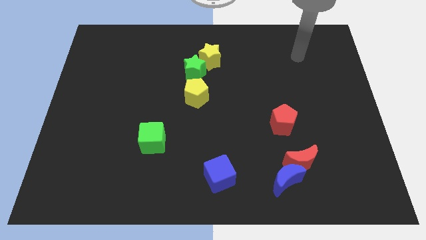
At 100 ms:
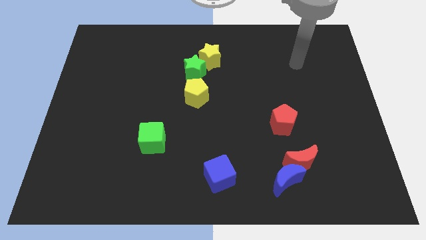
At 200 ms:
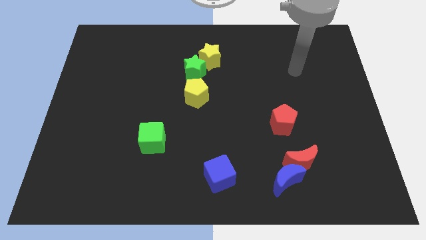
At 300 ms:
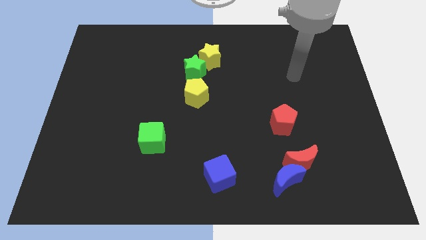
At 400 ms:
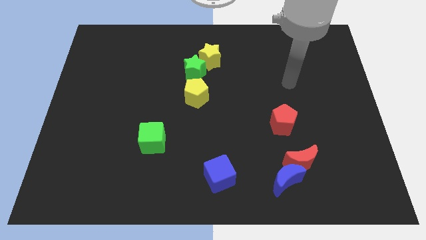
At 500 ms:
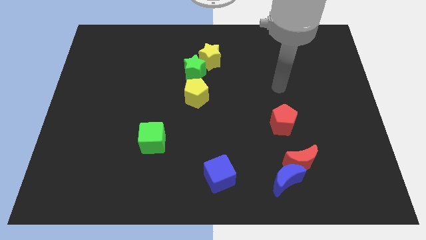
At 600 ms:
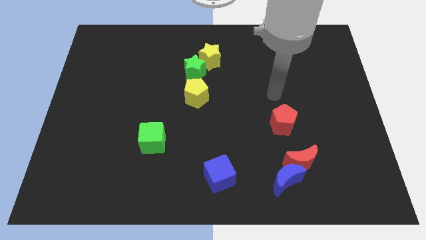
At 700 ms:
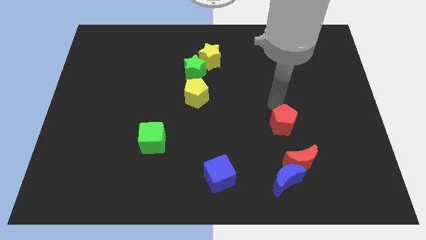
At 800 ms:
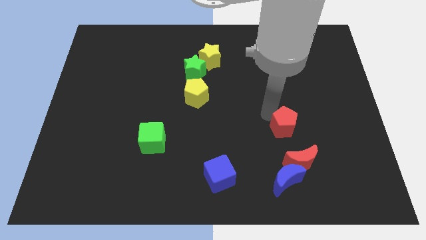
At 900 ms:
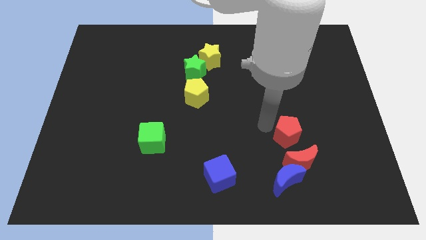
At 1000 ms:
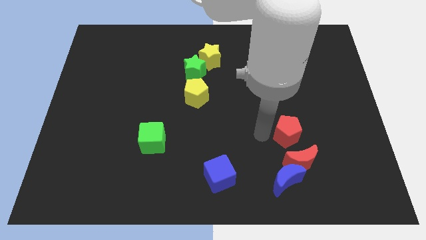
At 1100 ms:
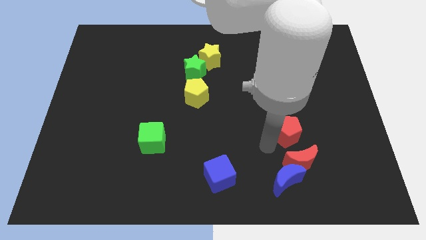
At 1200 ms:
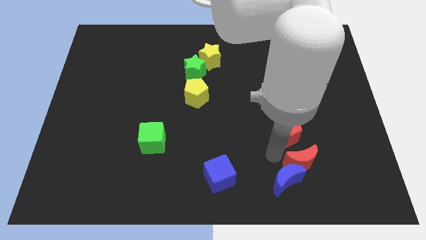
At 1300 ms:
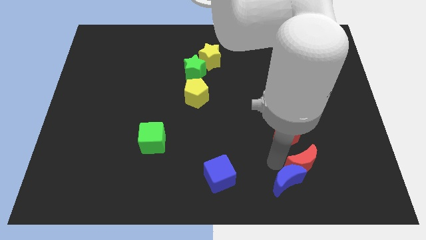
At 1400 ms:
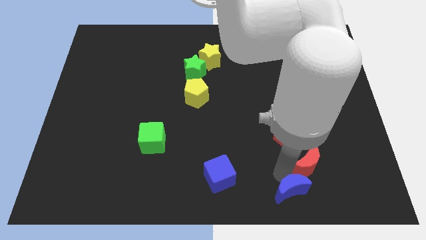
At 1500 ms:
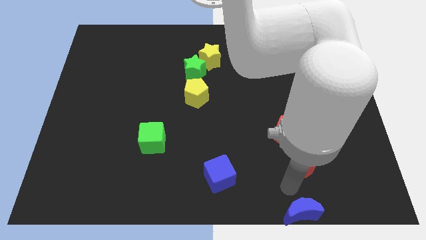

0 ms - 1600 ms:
pull the red moon apart from the blue moon

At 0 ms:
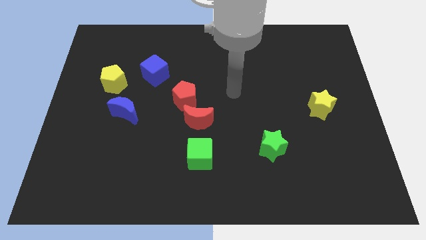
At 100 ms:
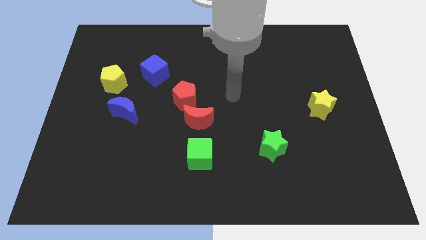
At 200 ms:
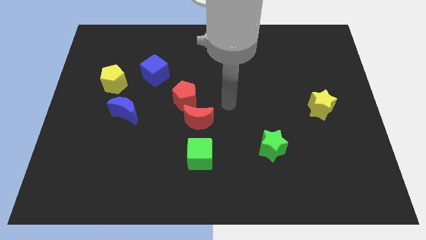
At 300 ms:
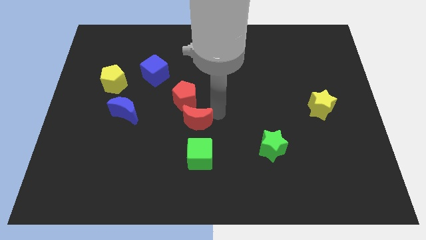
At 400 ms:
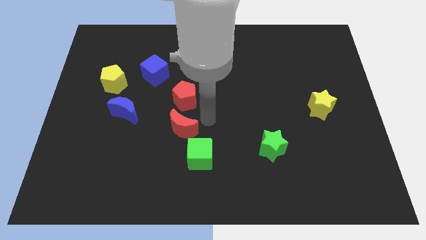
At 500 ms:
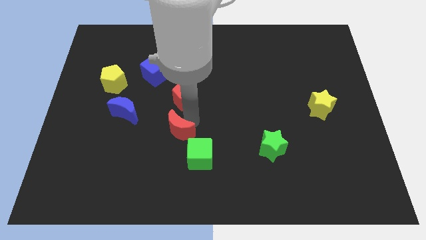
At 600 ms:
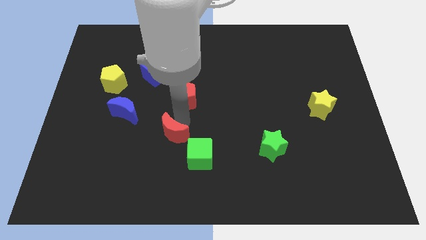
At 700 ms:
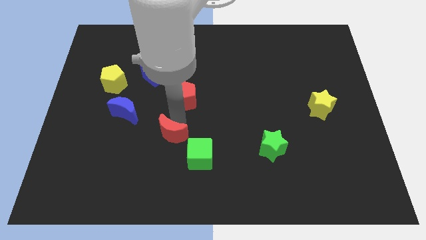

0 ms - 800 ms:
pull the red pentagon apart from the red moon

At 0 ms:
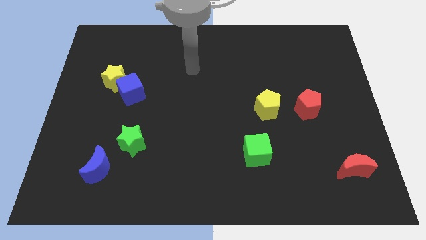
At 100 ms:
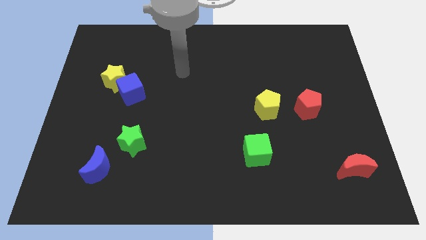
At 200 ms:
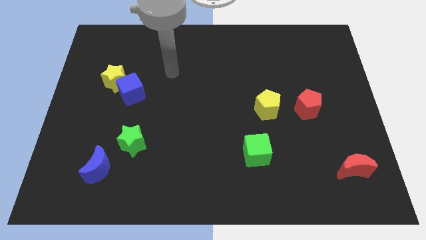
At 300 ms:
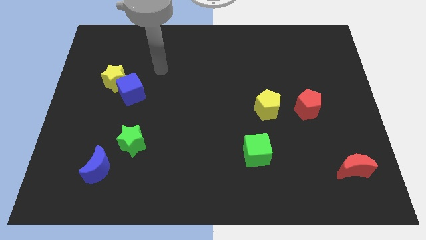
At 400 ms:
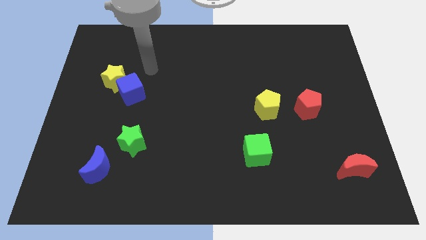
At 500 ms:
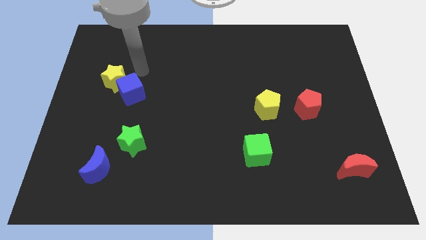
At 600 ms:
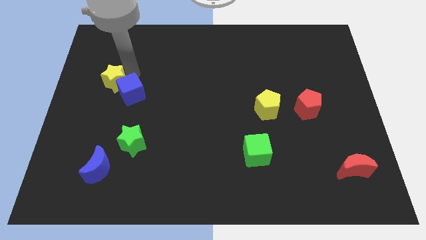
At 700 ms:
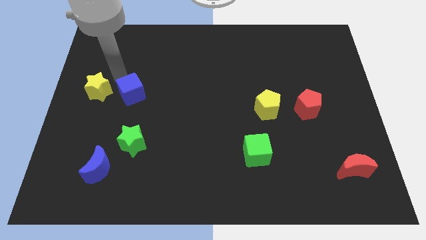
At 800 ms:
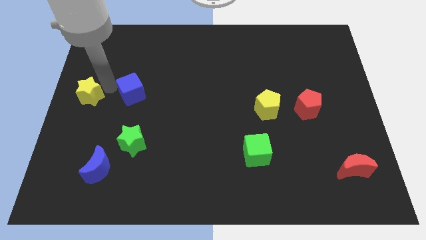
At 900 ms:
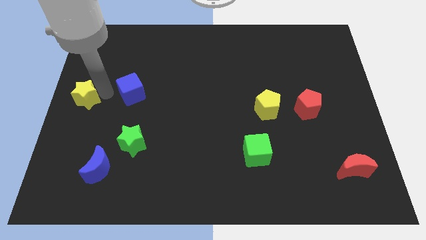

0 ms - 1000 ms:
pull the blue cube apart from the yellow star

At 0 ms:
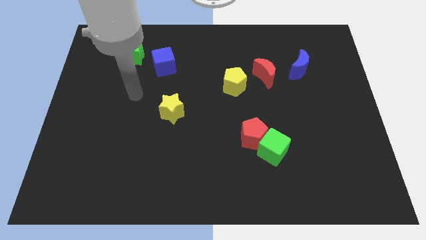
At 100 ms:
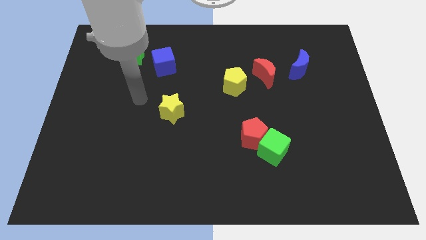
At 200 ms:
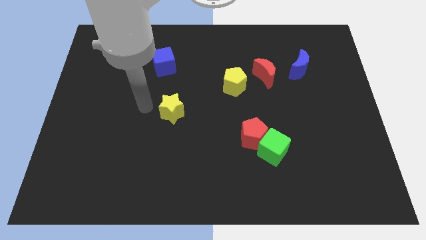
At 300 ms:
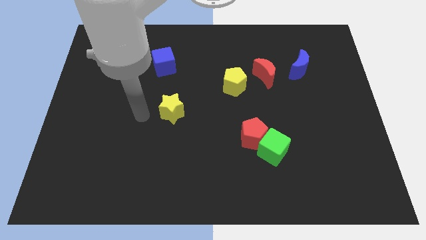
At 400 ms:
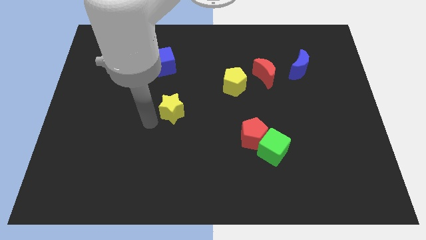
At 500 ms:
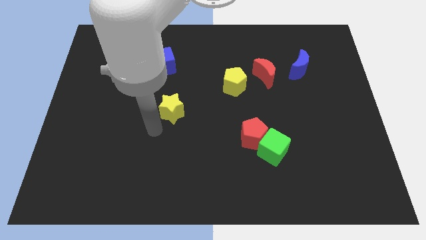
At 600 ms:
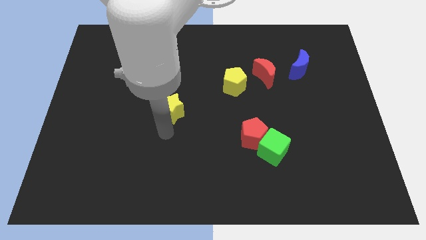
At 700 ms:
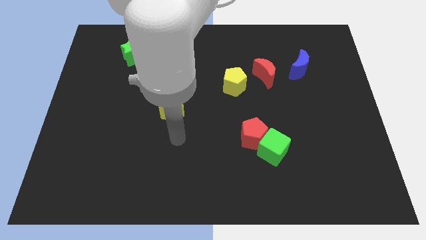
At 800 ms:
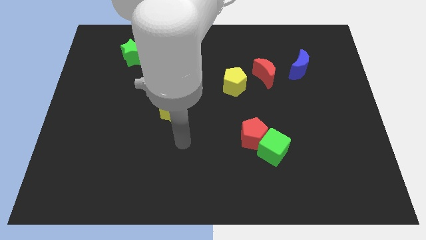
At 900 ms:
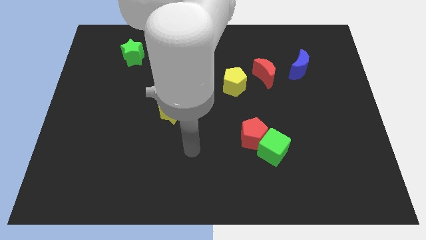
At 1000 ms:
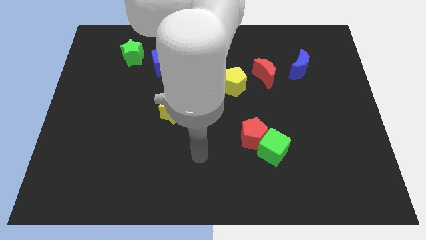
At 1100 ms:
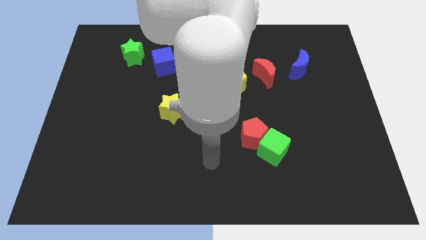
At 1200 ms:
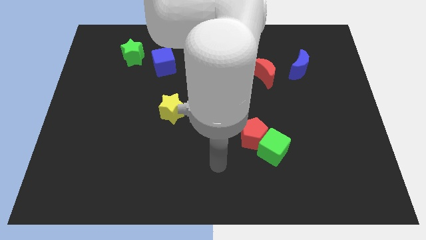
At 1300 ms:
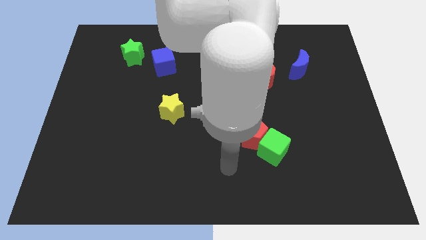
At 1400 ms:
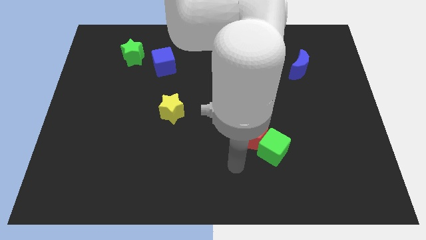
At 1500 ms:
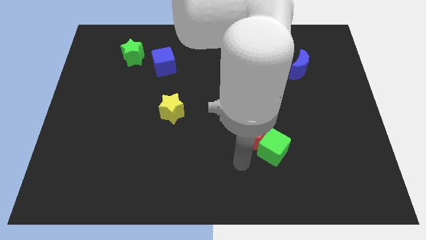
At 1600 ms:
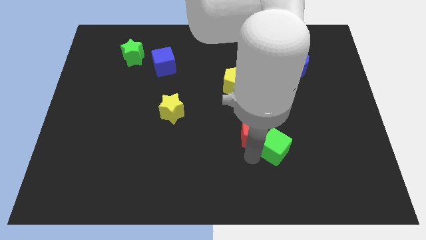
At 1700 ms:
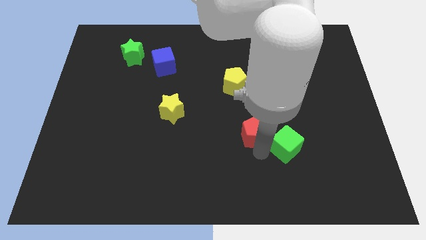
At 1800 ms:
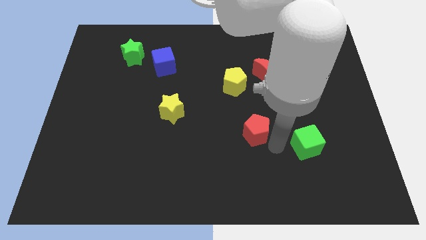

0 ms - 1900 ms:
pull the red pentagon apart from the green cube

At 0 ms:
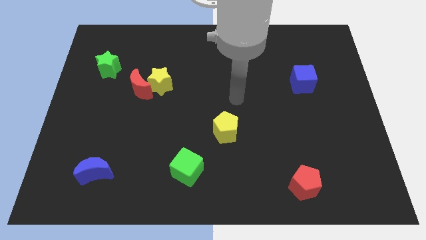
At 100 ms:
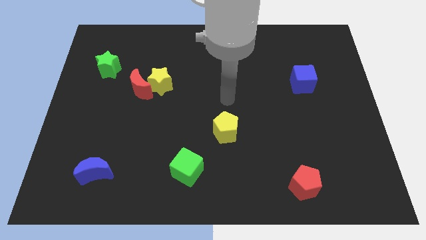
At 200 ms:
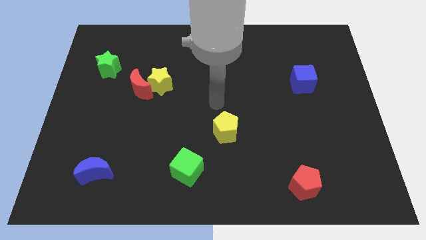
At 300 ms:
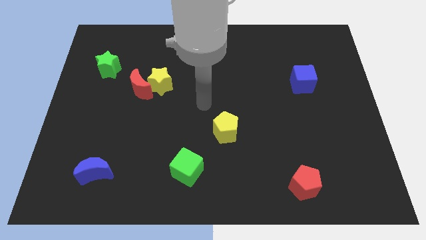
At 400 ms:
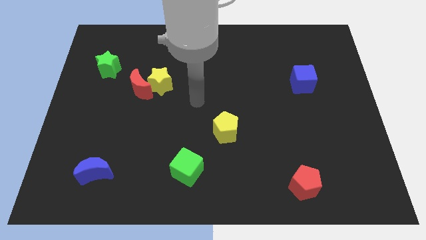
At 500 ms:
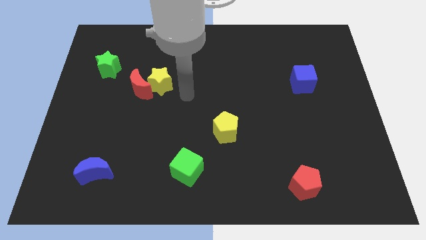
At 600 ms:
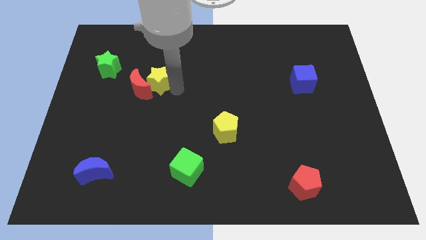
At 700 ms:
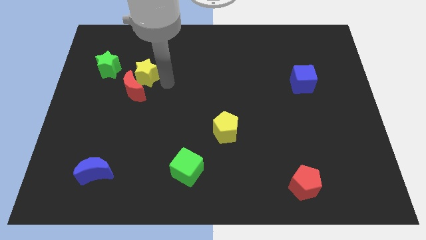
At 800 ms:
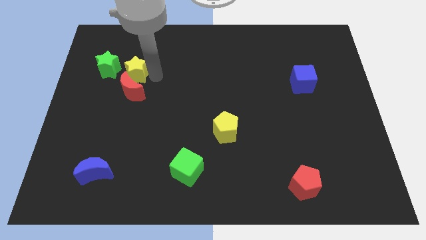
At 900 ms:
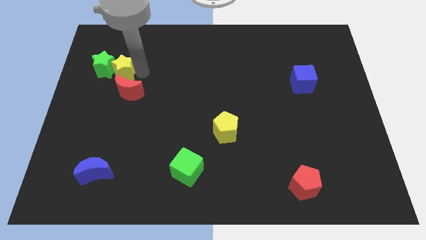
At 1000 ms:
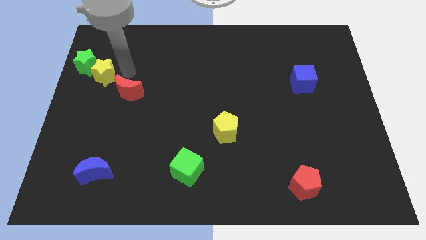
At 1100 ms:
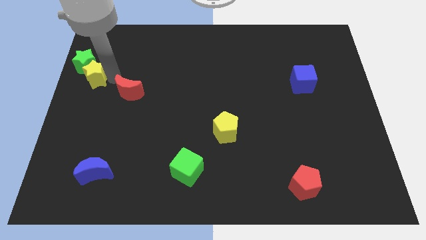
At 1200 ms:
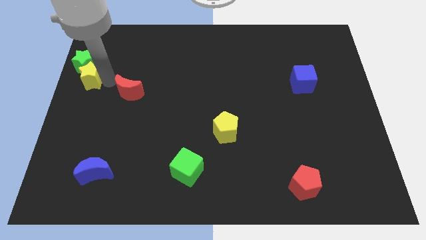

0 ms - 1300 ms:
pull the red moon apart from the yellow star

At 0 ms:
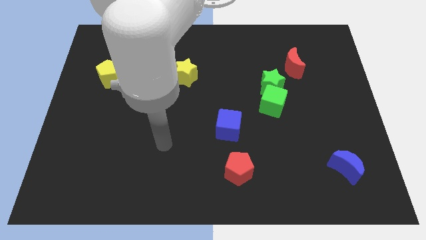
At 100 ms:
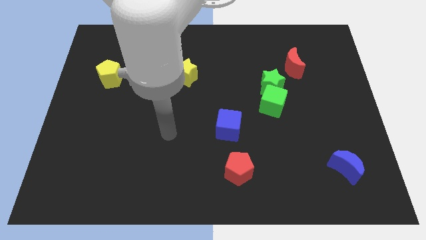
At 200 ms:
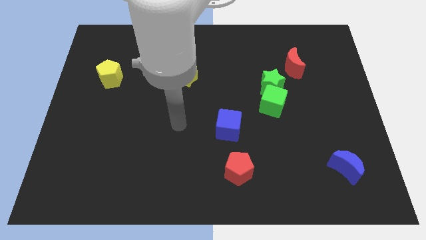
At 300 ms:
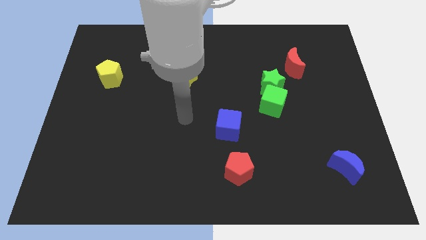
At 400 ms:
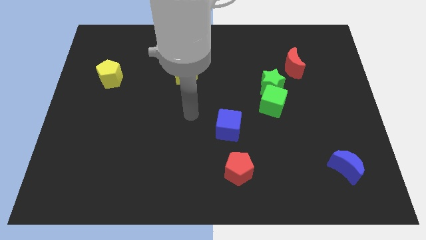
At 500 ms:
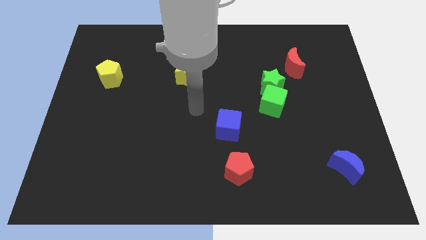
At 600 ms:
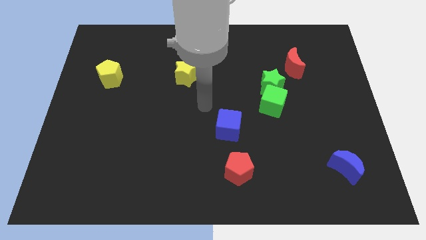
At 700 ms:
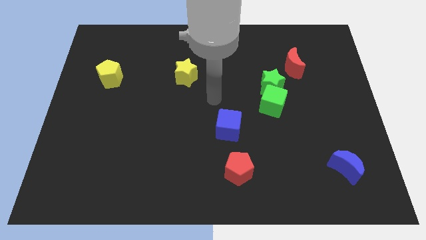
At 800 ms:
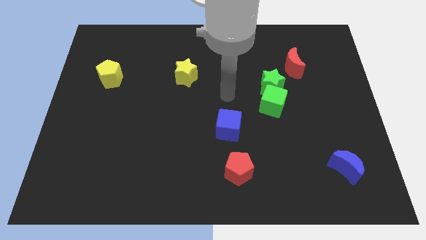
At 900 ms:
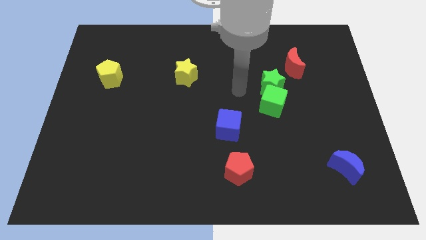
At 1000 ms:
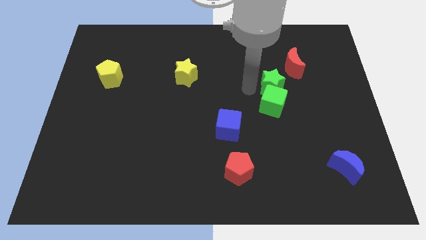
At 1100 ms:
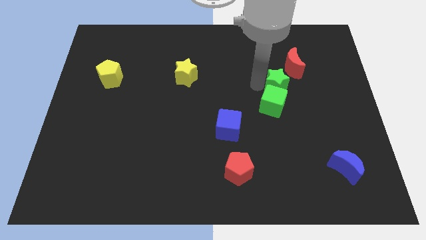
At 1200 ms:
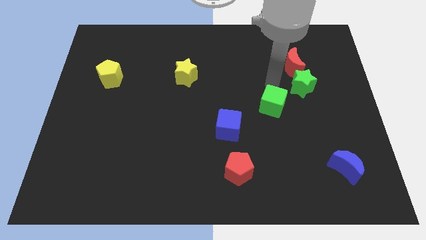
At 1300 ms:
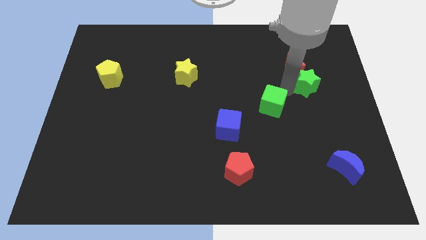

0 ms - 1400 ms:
pull the green cube apart from the green star

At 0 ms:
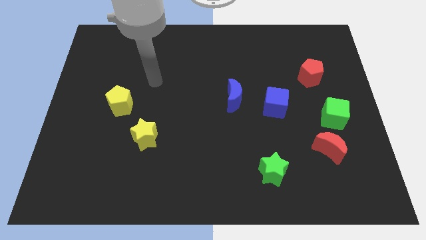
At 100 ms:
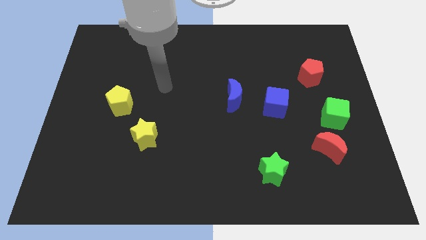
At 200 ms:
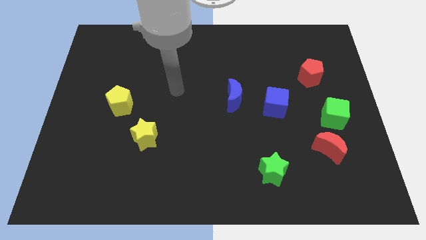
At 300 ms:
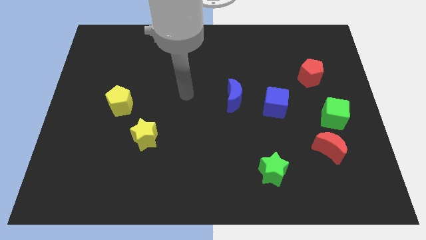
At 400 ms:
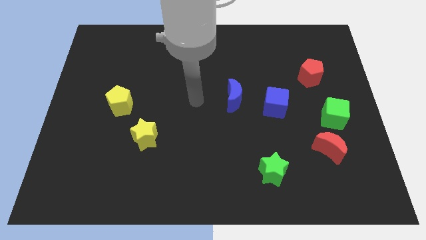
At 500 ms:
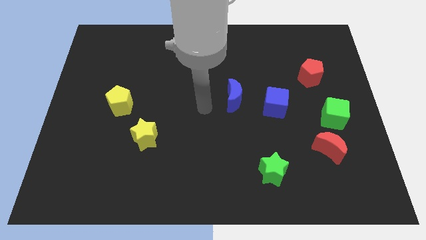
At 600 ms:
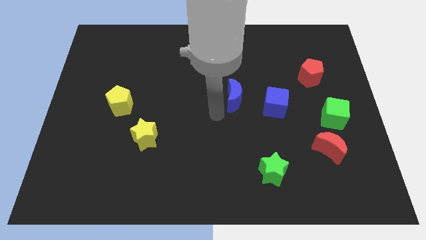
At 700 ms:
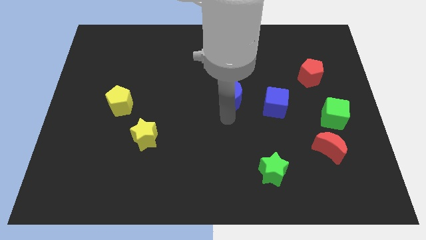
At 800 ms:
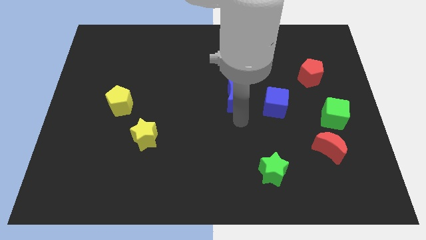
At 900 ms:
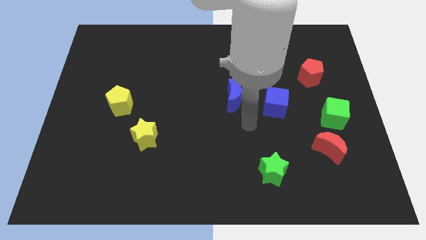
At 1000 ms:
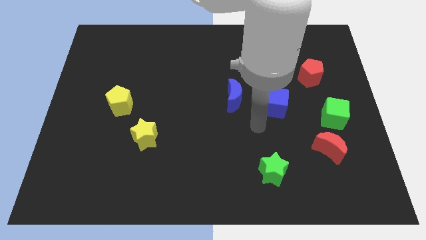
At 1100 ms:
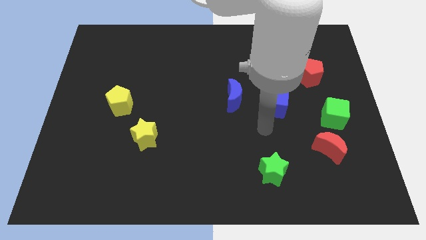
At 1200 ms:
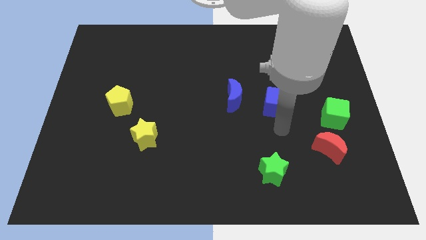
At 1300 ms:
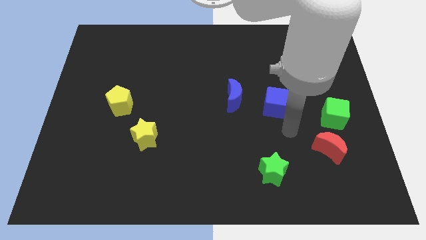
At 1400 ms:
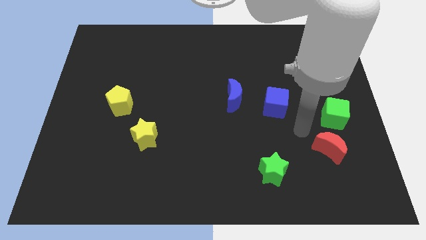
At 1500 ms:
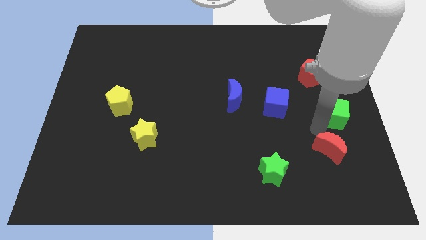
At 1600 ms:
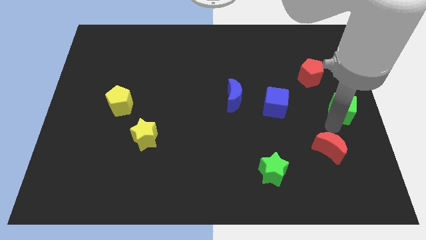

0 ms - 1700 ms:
pull the red moon apart from the green cube
